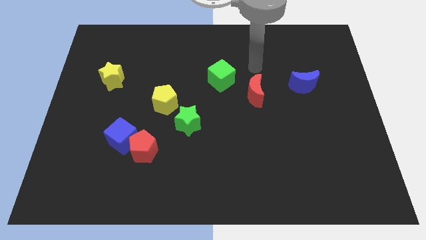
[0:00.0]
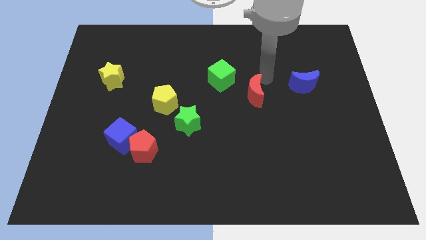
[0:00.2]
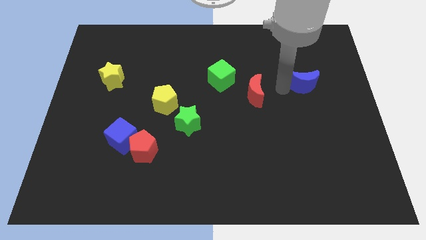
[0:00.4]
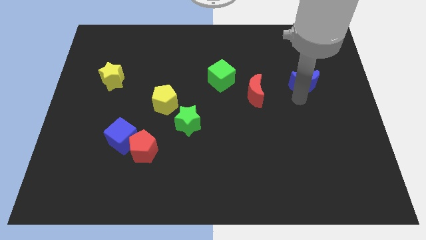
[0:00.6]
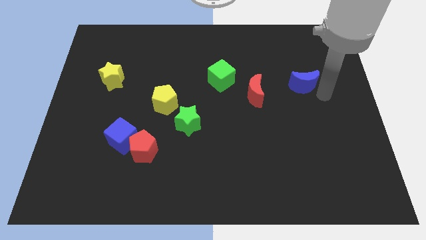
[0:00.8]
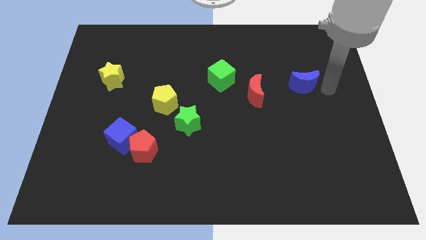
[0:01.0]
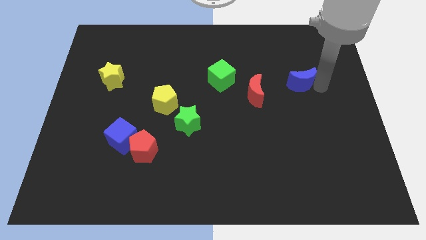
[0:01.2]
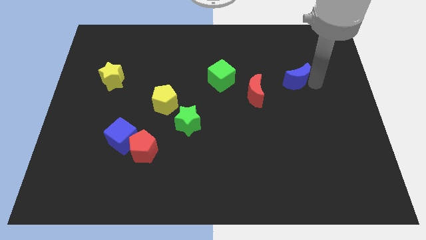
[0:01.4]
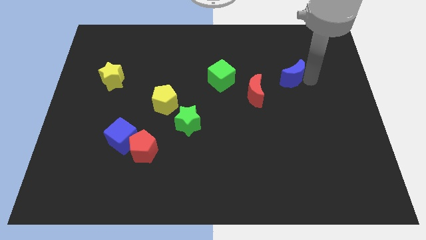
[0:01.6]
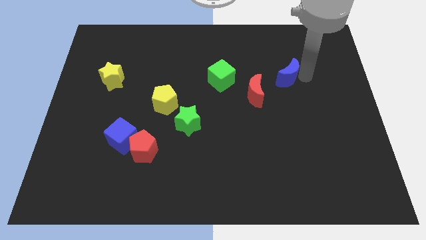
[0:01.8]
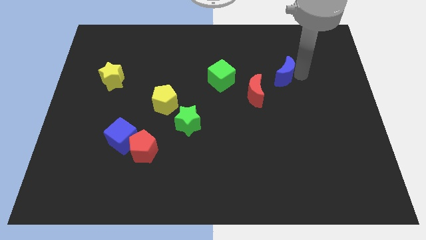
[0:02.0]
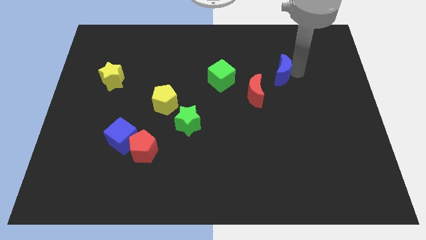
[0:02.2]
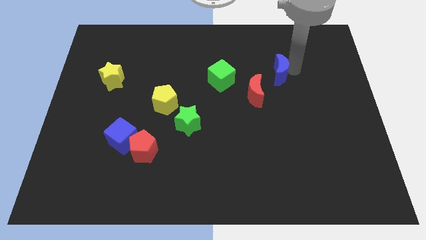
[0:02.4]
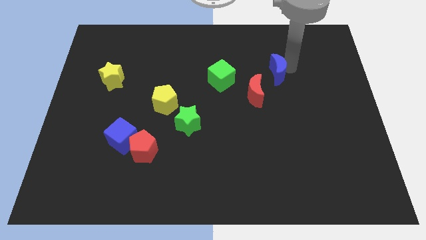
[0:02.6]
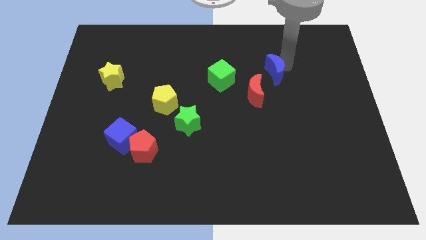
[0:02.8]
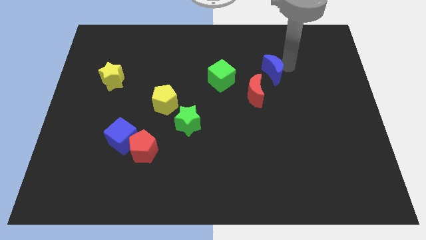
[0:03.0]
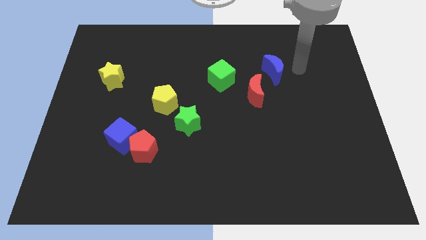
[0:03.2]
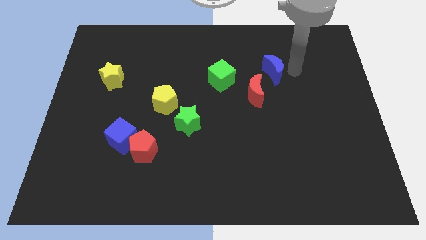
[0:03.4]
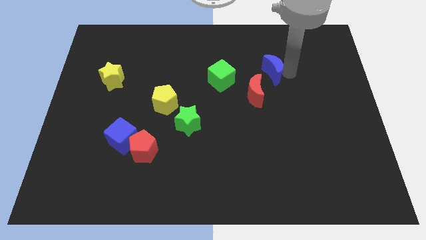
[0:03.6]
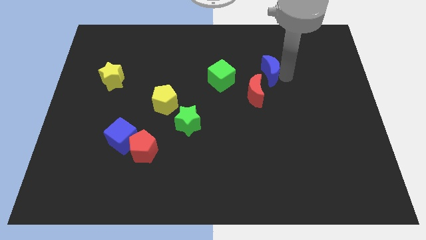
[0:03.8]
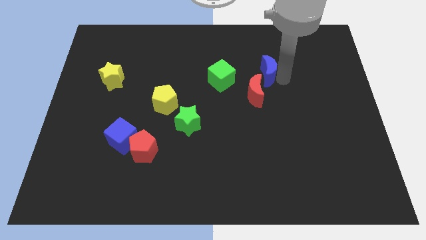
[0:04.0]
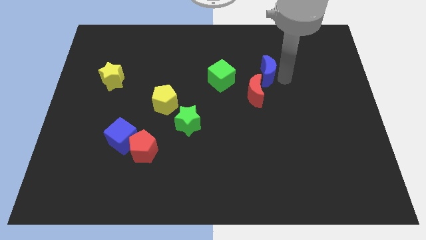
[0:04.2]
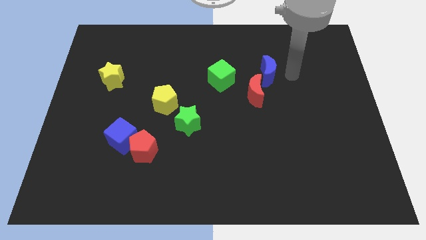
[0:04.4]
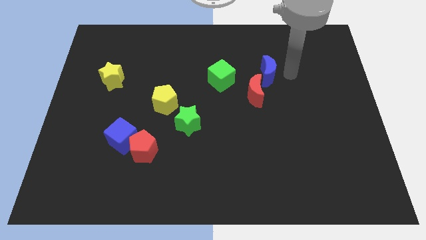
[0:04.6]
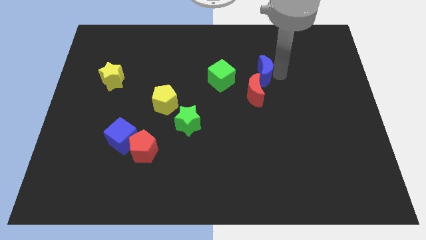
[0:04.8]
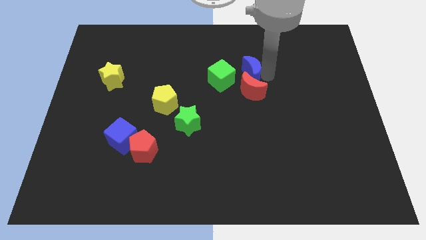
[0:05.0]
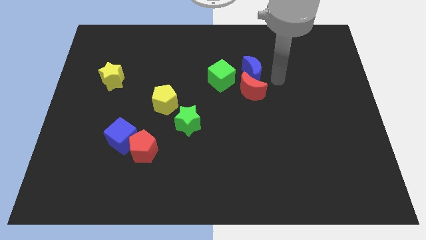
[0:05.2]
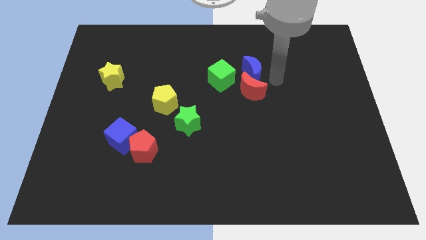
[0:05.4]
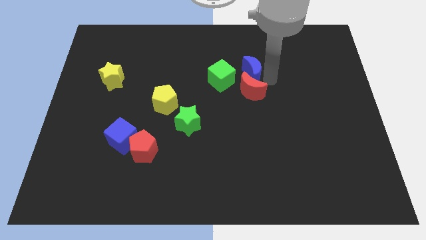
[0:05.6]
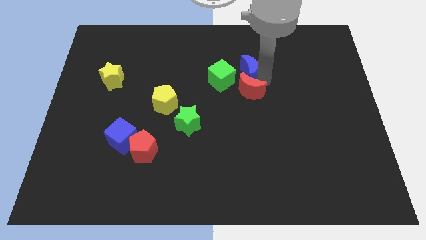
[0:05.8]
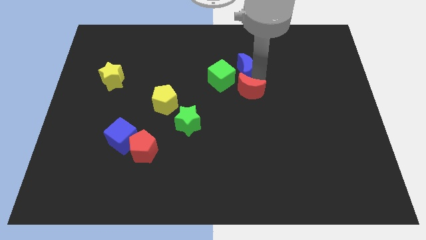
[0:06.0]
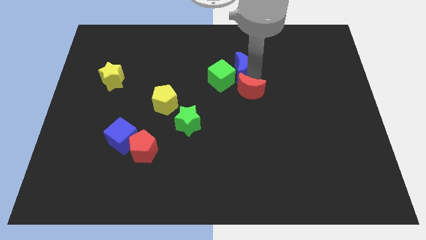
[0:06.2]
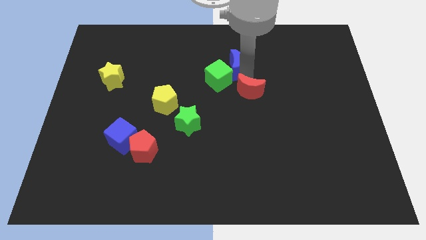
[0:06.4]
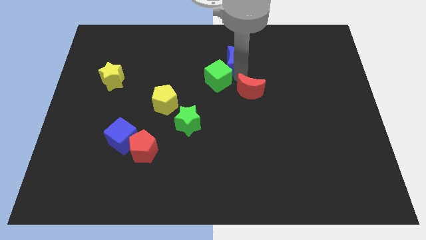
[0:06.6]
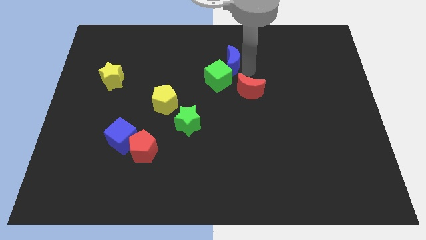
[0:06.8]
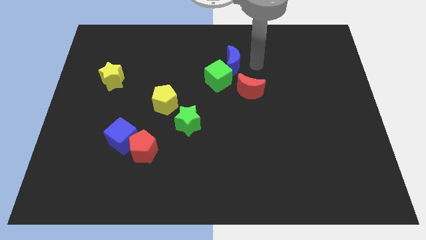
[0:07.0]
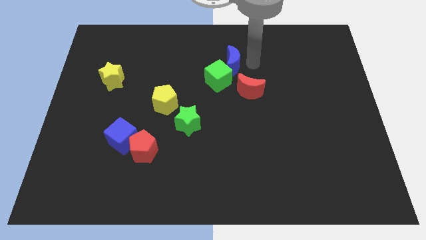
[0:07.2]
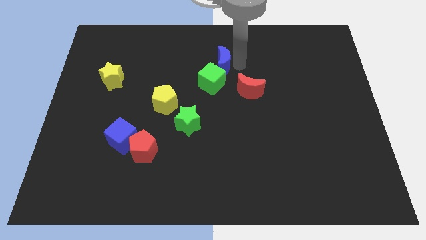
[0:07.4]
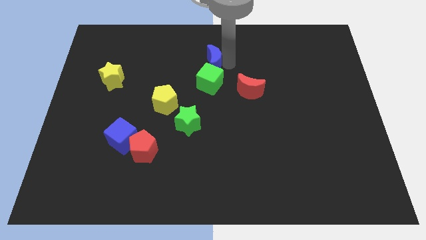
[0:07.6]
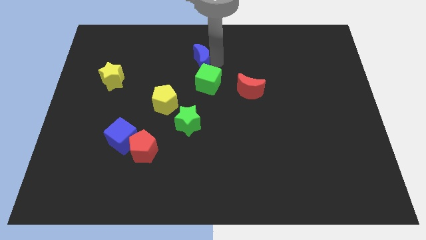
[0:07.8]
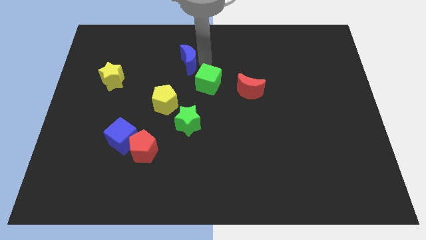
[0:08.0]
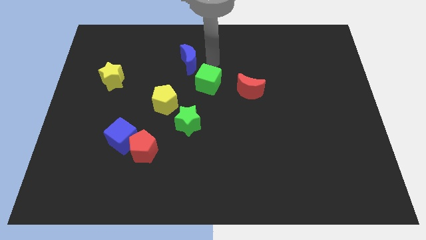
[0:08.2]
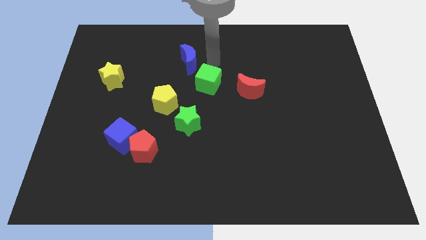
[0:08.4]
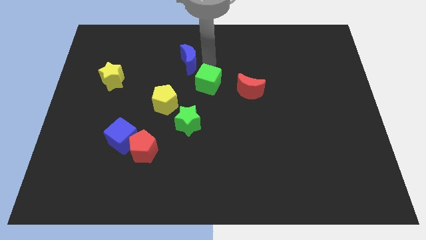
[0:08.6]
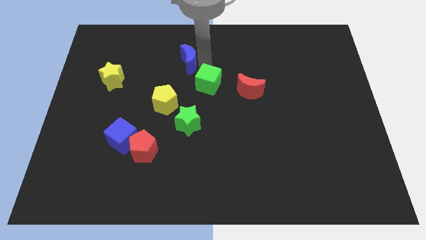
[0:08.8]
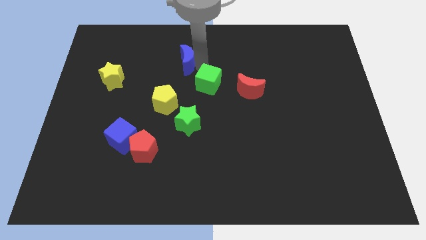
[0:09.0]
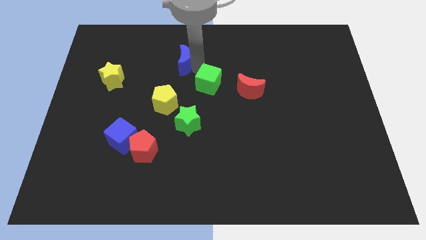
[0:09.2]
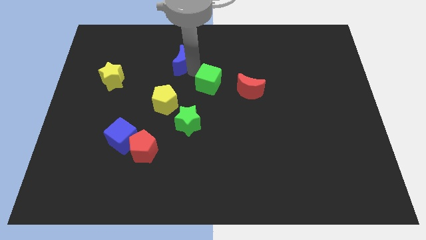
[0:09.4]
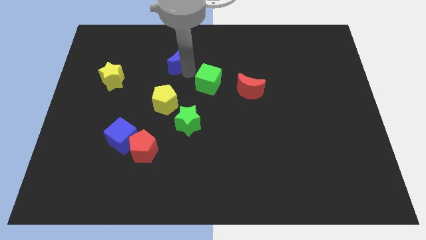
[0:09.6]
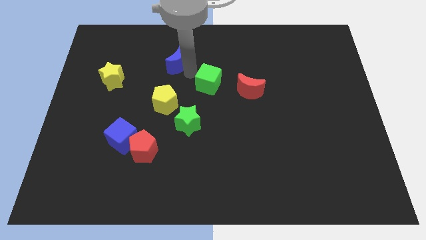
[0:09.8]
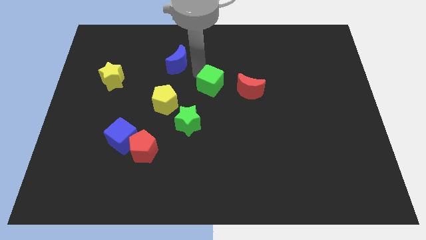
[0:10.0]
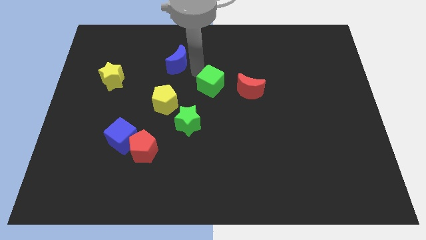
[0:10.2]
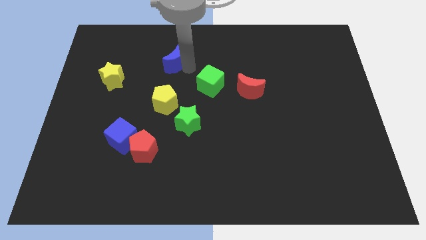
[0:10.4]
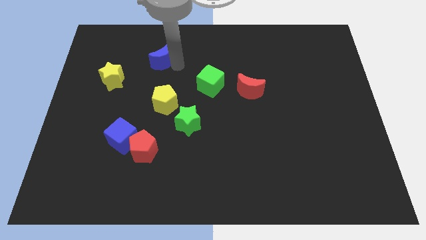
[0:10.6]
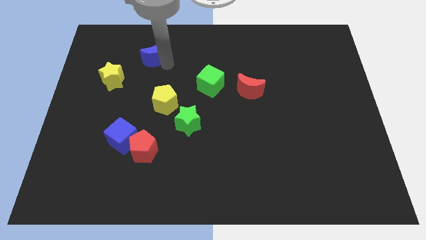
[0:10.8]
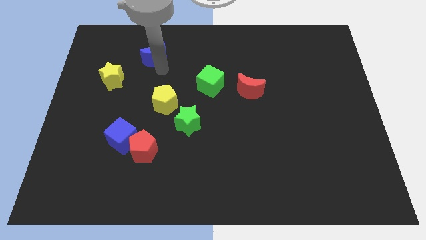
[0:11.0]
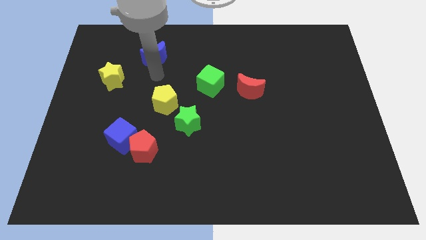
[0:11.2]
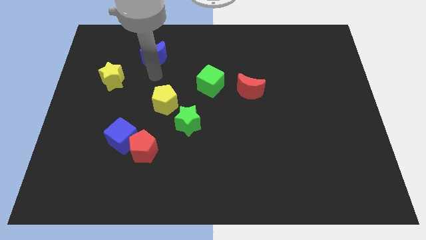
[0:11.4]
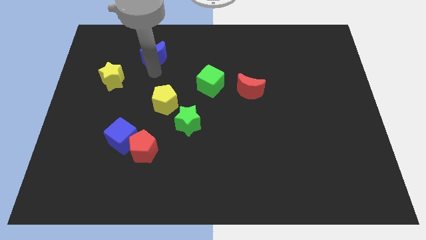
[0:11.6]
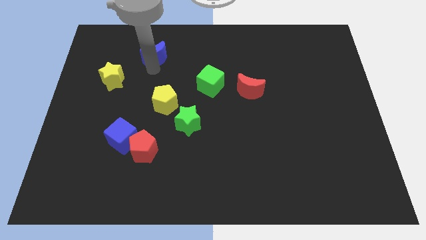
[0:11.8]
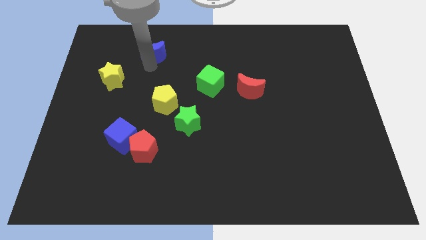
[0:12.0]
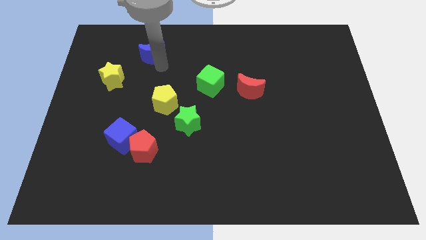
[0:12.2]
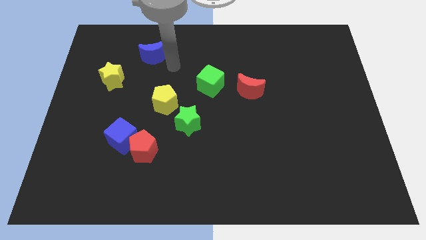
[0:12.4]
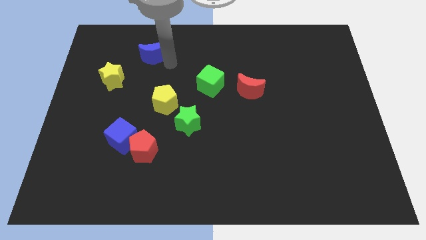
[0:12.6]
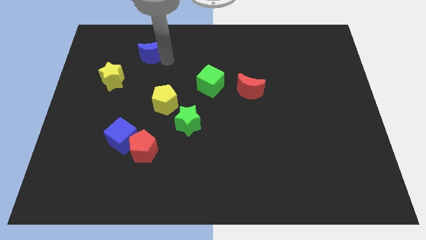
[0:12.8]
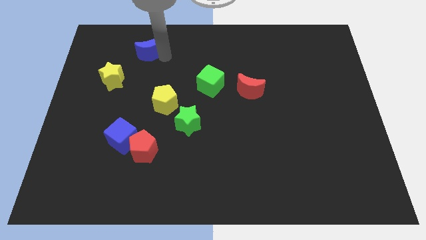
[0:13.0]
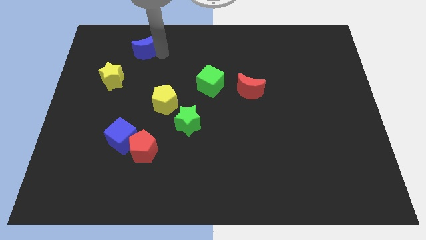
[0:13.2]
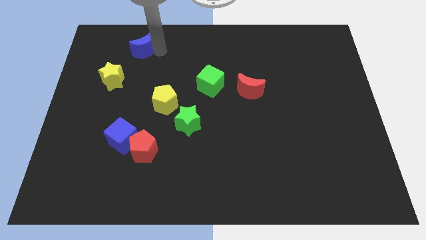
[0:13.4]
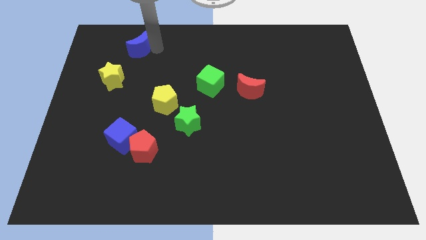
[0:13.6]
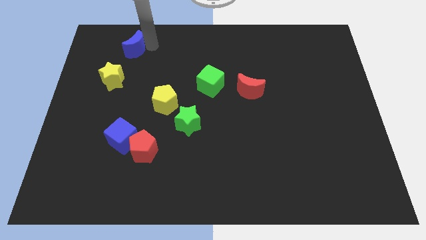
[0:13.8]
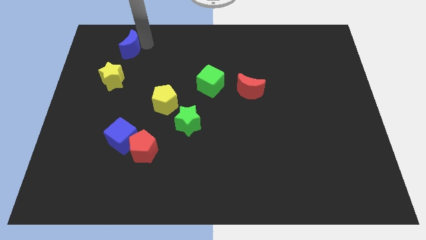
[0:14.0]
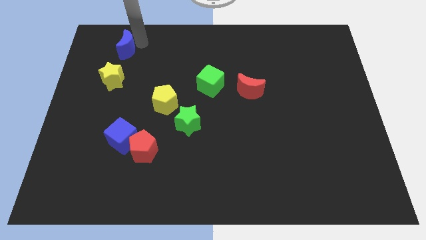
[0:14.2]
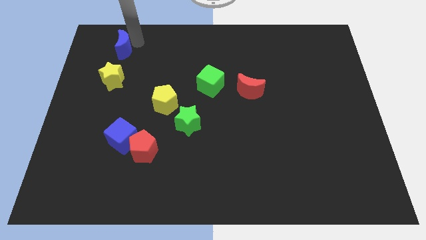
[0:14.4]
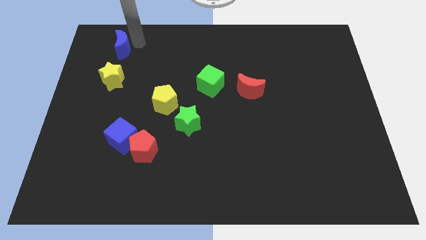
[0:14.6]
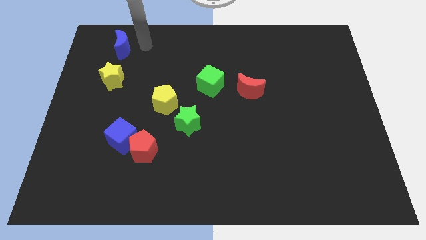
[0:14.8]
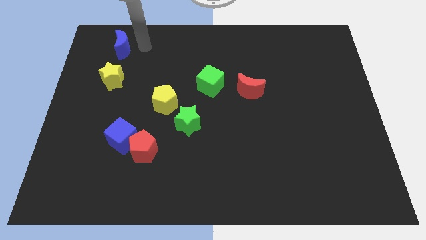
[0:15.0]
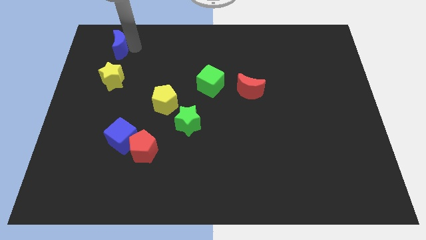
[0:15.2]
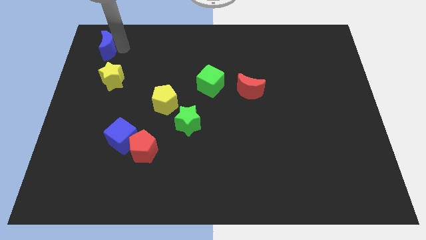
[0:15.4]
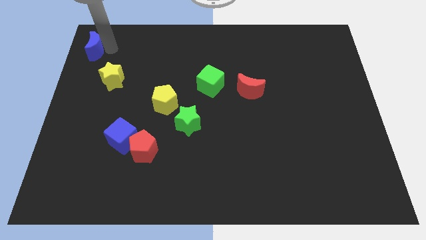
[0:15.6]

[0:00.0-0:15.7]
push the blue moon to the upper left corner
